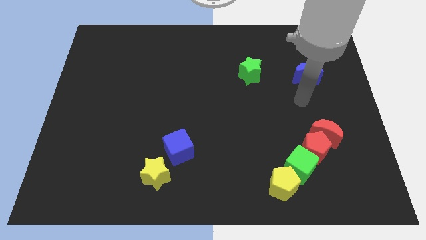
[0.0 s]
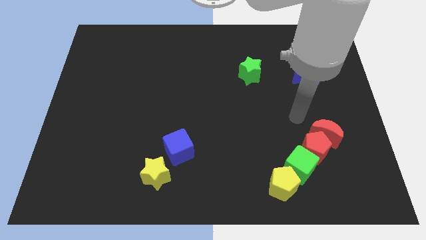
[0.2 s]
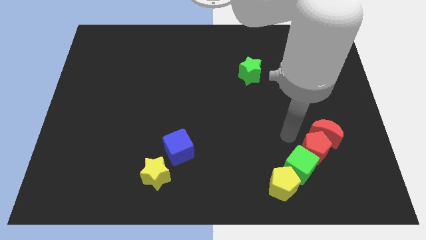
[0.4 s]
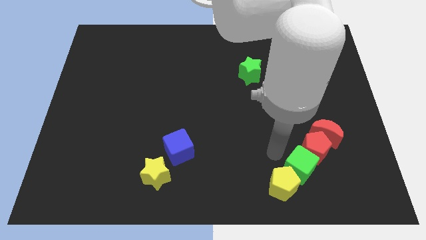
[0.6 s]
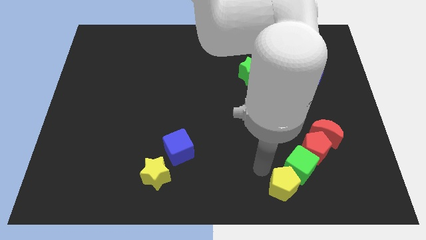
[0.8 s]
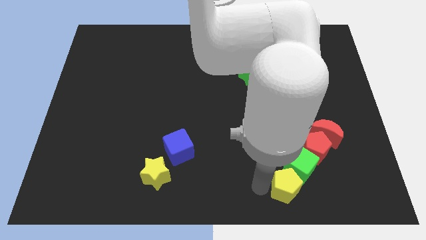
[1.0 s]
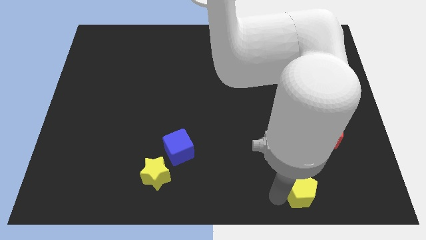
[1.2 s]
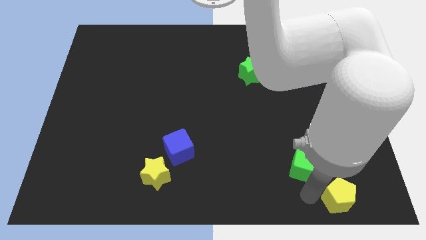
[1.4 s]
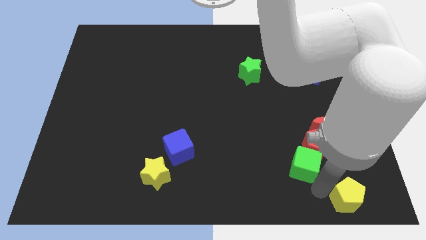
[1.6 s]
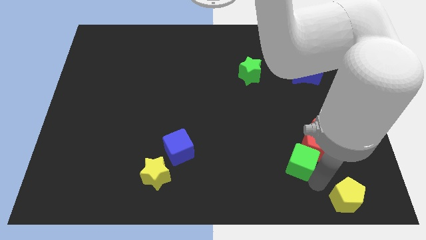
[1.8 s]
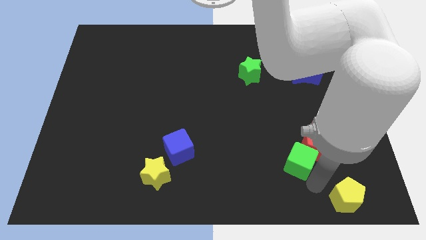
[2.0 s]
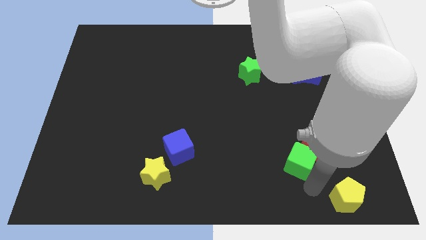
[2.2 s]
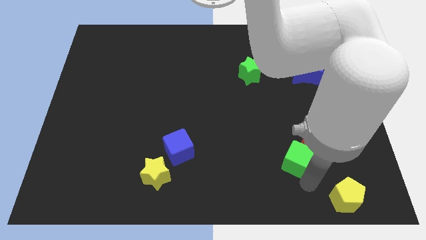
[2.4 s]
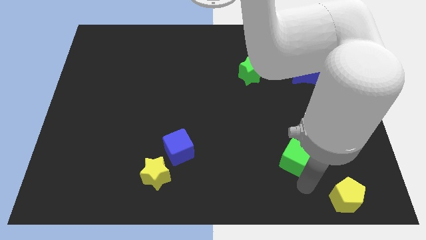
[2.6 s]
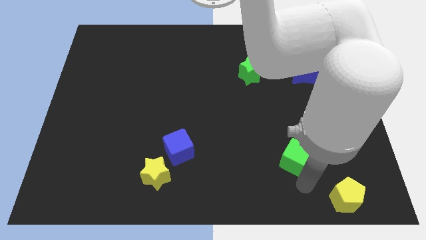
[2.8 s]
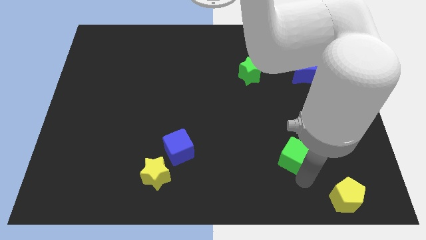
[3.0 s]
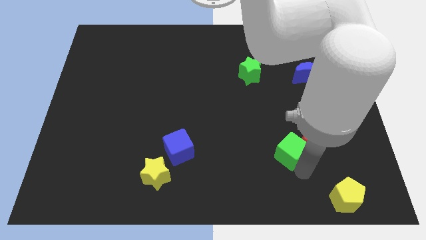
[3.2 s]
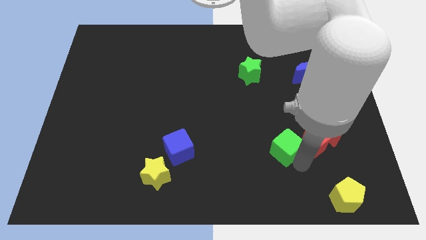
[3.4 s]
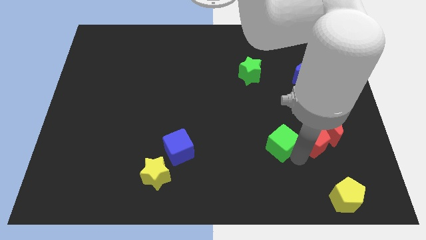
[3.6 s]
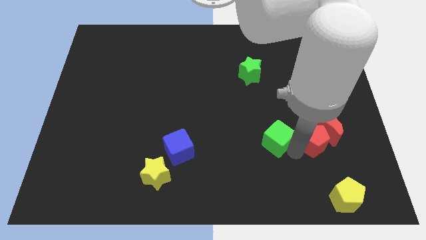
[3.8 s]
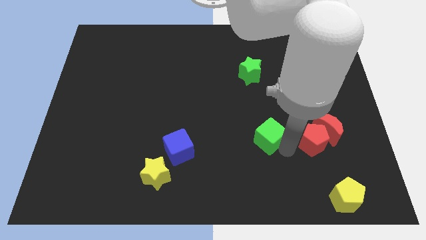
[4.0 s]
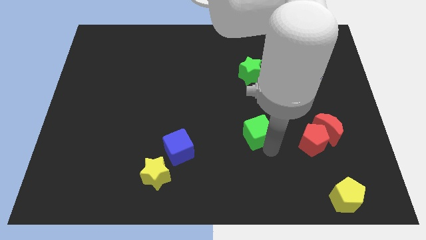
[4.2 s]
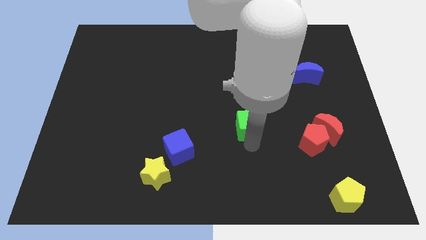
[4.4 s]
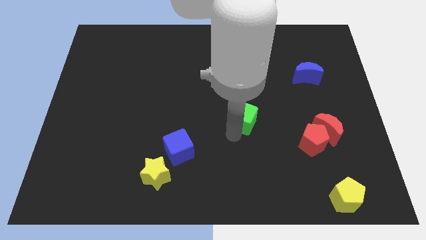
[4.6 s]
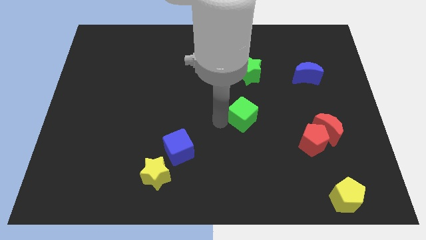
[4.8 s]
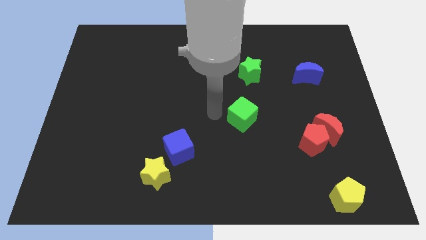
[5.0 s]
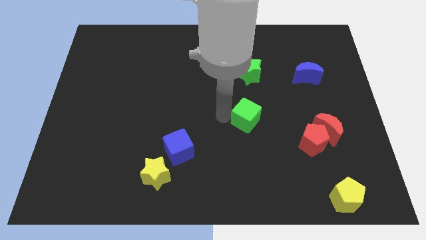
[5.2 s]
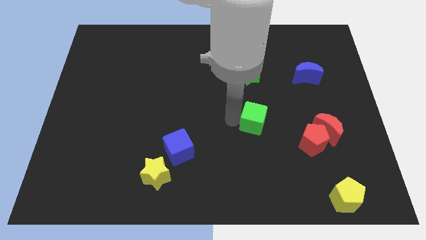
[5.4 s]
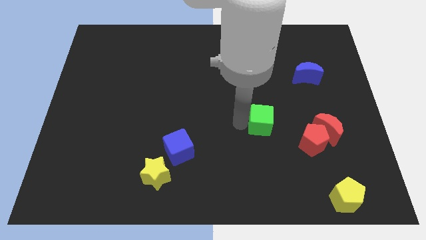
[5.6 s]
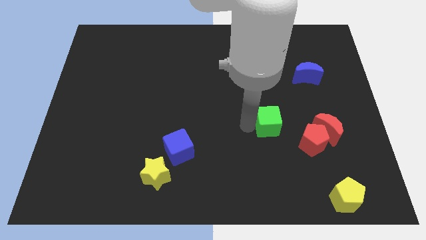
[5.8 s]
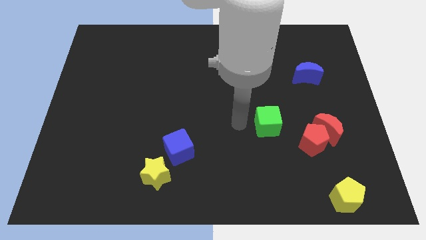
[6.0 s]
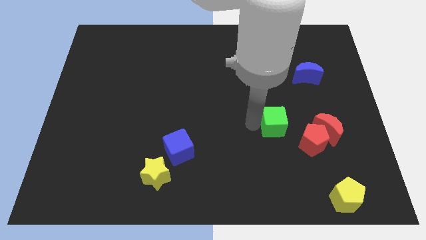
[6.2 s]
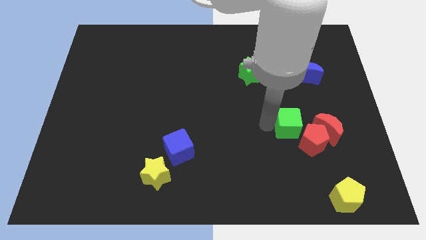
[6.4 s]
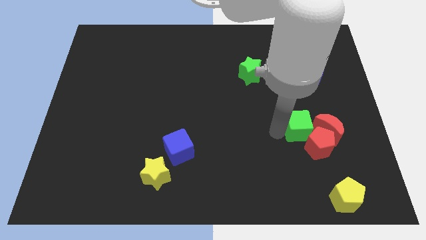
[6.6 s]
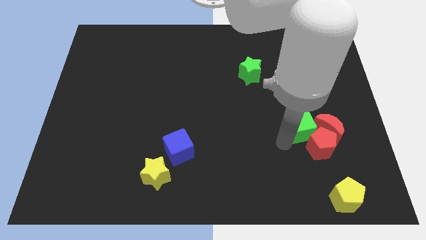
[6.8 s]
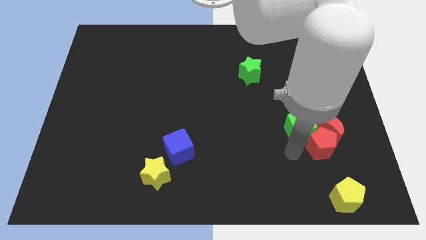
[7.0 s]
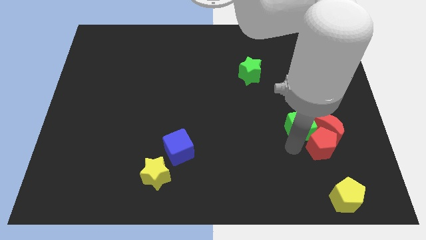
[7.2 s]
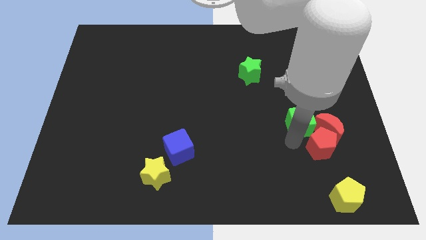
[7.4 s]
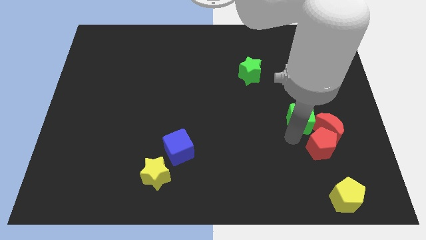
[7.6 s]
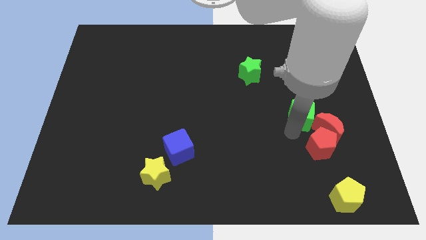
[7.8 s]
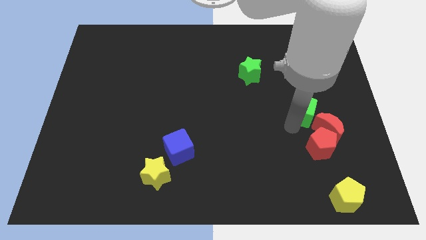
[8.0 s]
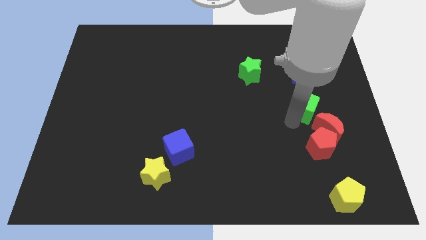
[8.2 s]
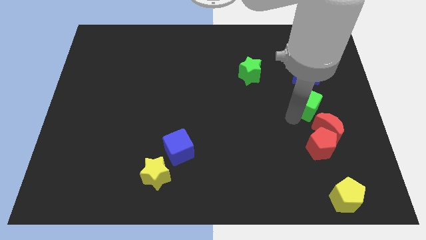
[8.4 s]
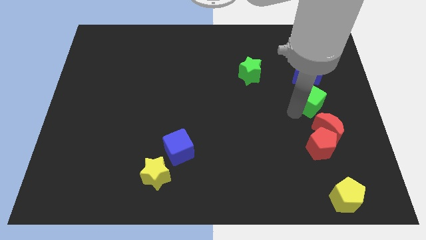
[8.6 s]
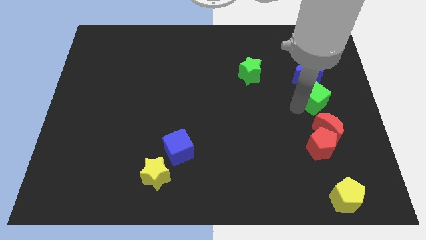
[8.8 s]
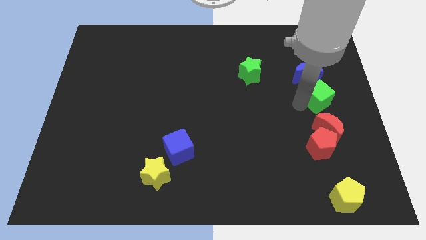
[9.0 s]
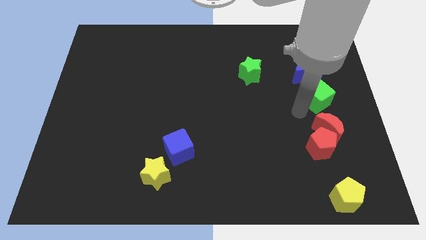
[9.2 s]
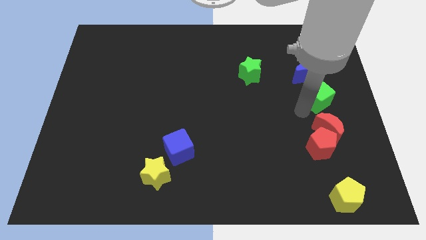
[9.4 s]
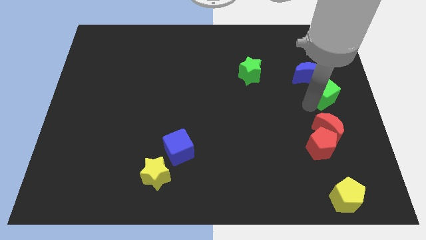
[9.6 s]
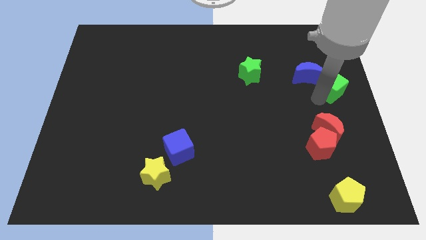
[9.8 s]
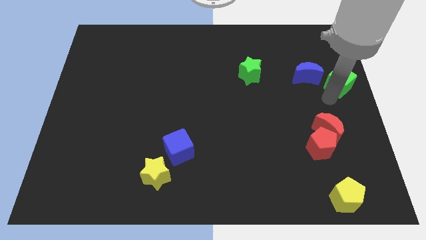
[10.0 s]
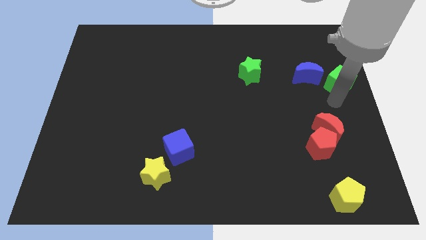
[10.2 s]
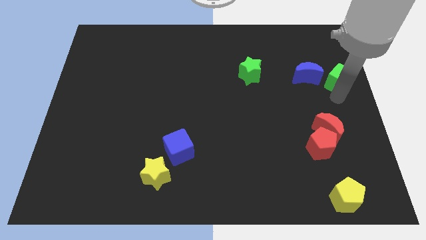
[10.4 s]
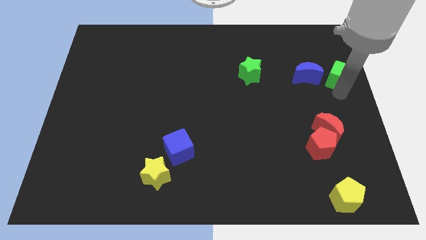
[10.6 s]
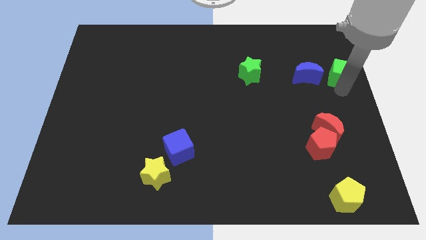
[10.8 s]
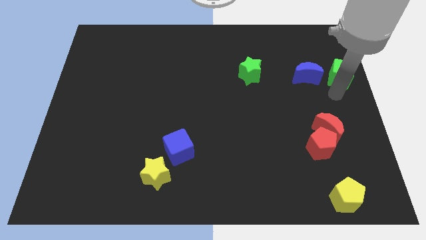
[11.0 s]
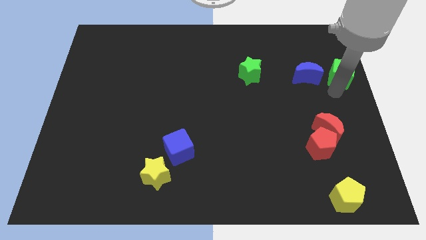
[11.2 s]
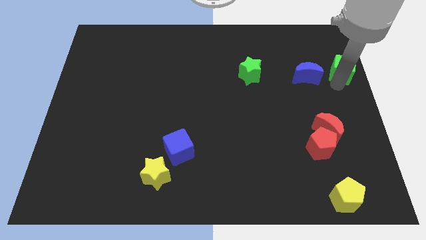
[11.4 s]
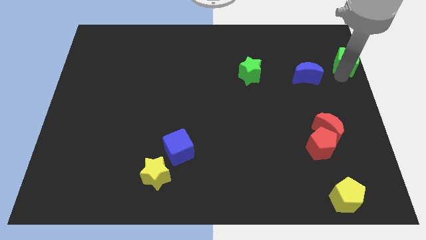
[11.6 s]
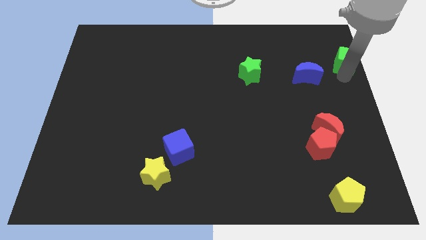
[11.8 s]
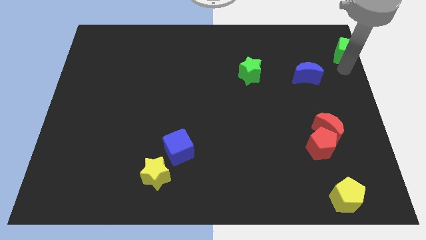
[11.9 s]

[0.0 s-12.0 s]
slide the green cube to the top right corner
